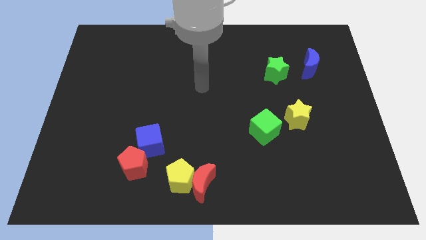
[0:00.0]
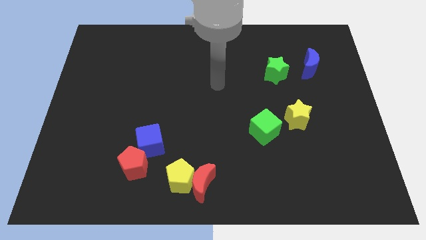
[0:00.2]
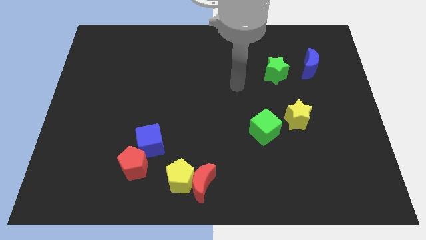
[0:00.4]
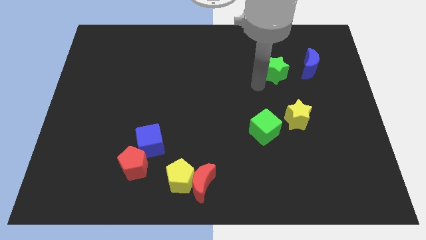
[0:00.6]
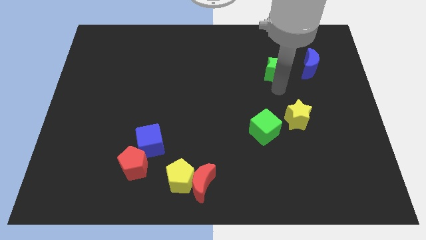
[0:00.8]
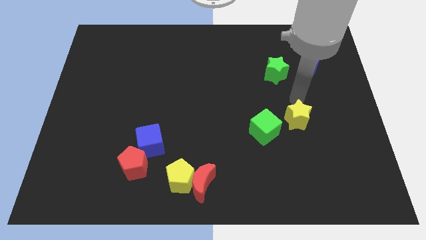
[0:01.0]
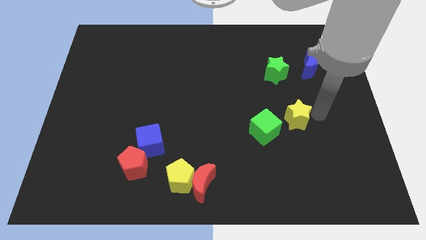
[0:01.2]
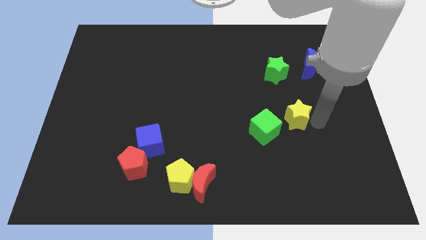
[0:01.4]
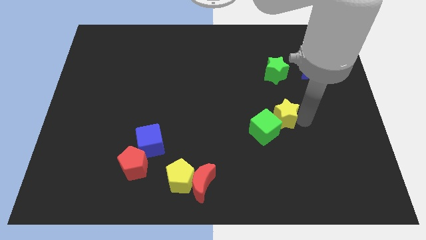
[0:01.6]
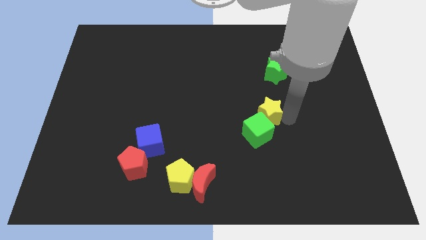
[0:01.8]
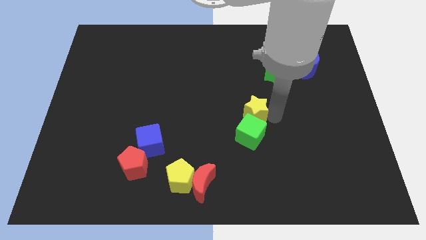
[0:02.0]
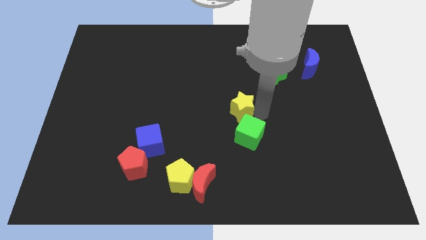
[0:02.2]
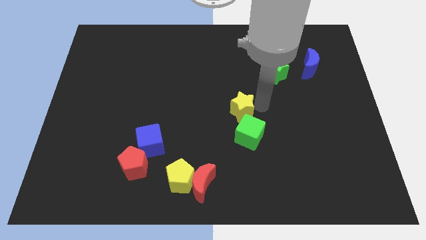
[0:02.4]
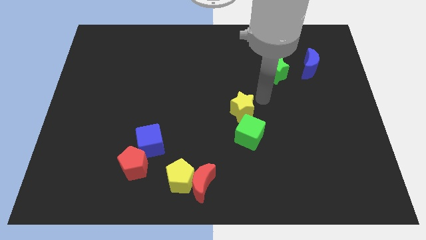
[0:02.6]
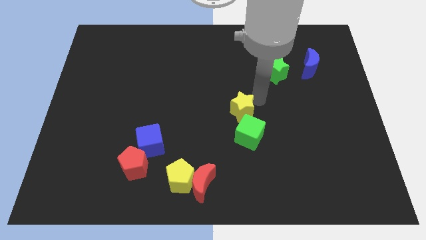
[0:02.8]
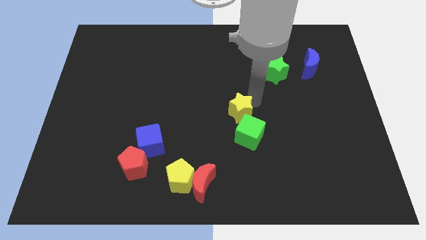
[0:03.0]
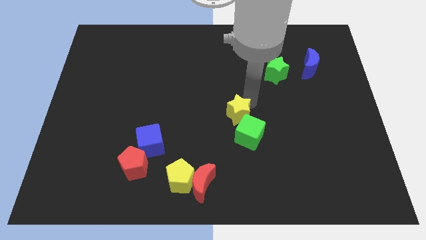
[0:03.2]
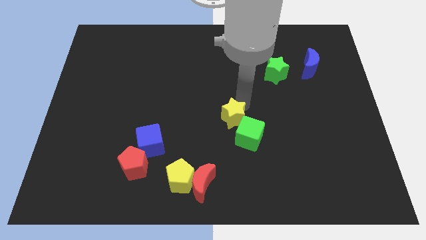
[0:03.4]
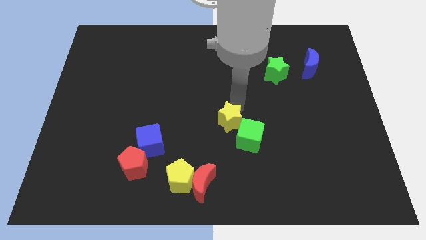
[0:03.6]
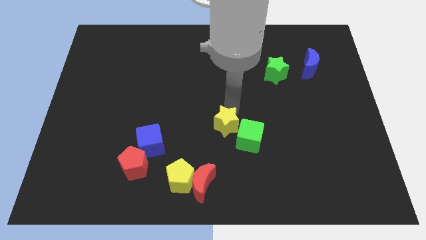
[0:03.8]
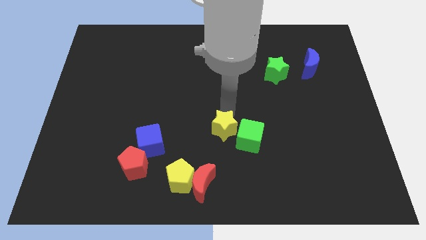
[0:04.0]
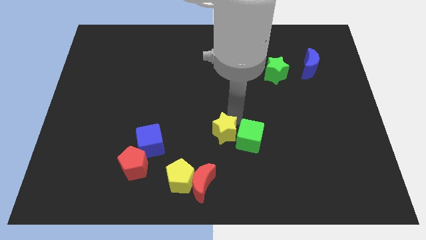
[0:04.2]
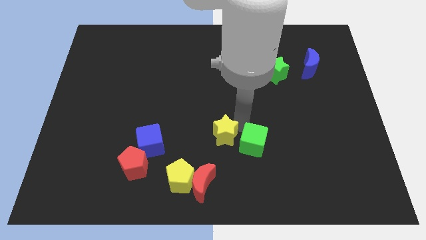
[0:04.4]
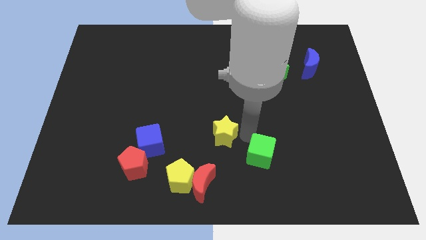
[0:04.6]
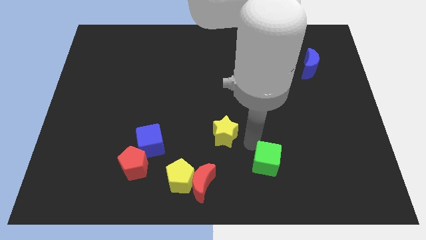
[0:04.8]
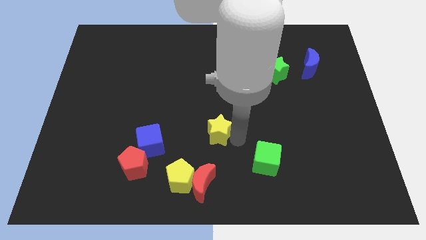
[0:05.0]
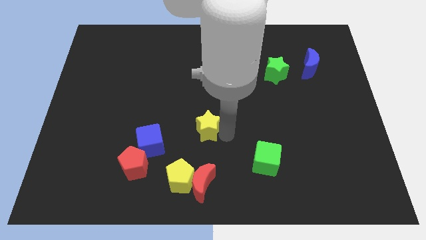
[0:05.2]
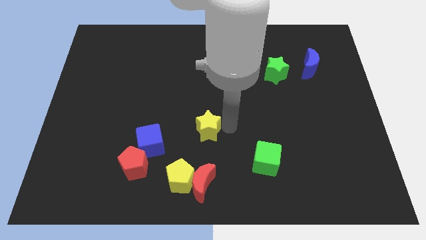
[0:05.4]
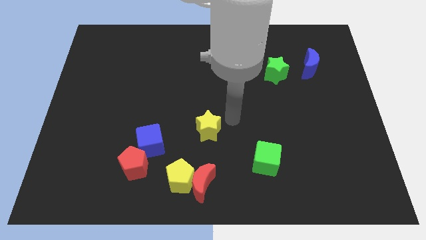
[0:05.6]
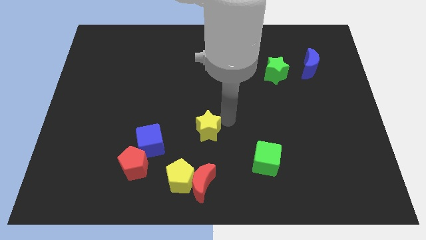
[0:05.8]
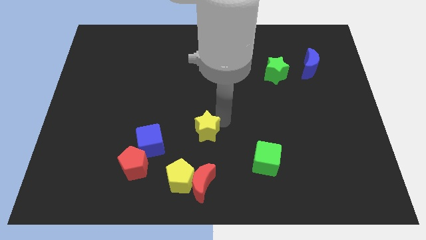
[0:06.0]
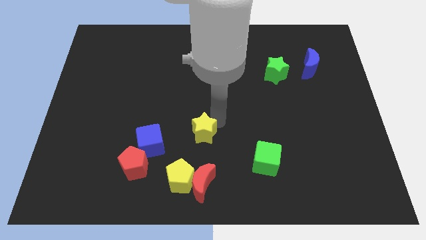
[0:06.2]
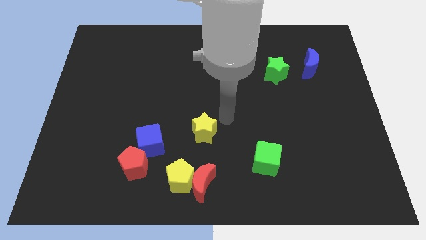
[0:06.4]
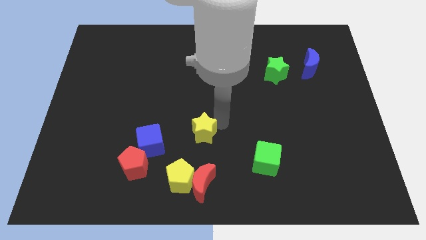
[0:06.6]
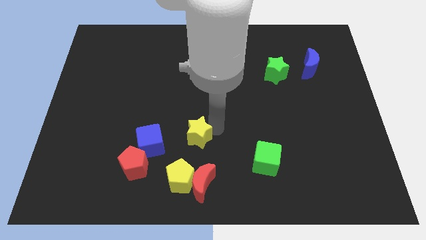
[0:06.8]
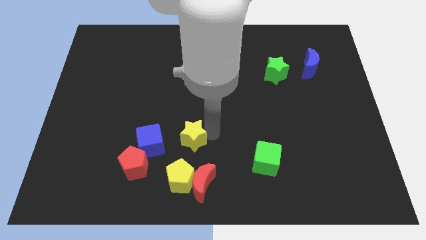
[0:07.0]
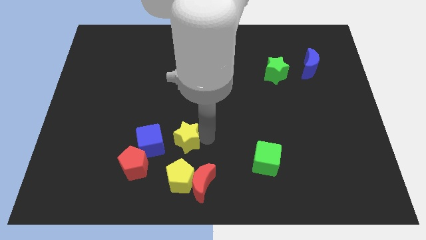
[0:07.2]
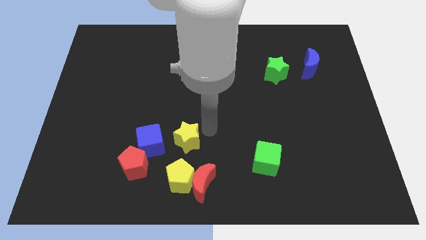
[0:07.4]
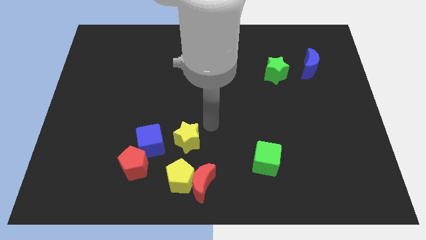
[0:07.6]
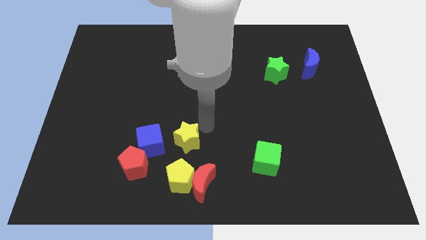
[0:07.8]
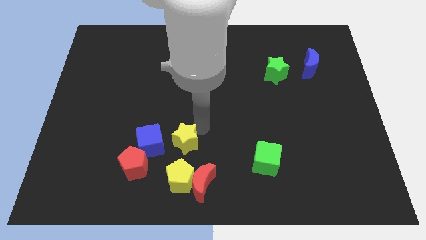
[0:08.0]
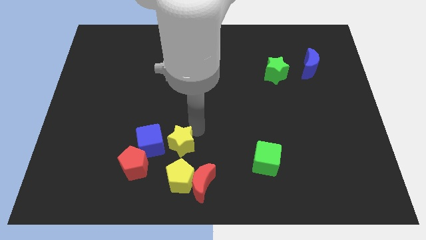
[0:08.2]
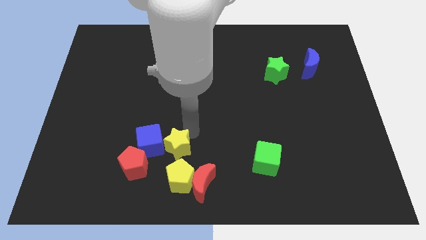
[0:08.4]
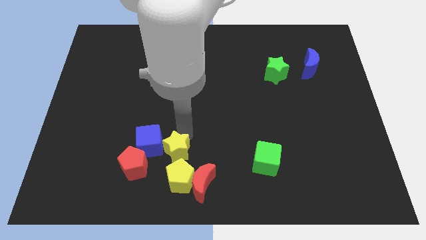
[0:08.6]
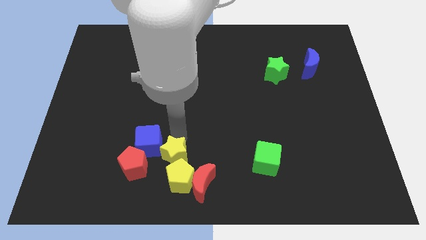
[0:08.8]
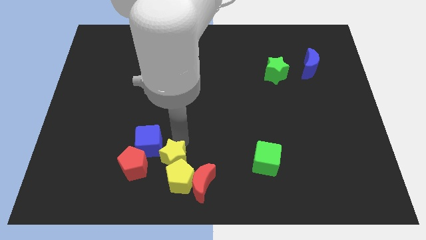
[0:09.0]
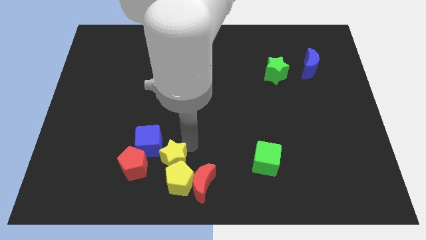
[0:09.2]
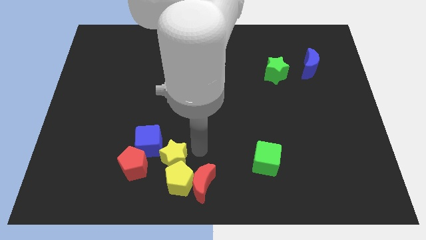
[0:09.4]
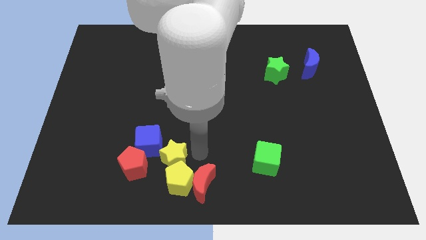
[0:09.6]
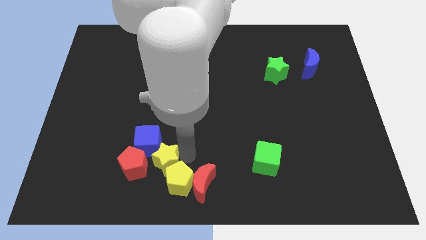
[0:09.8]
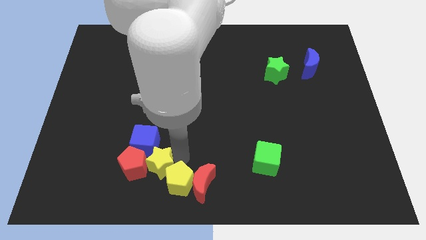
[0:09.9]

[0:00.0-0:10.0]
put the yellow star next to the red pentagon

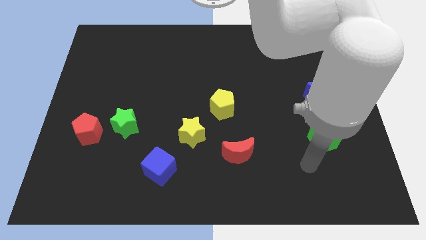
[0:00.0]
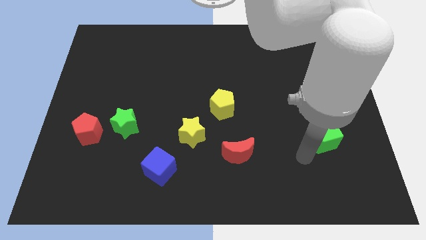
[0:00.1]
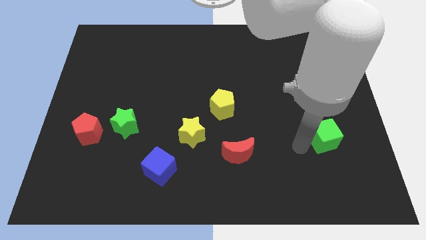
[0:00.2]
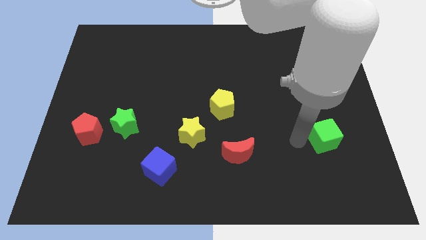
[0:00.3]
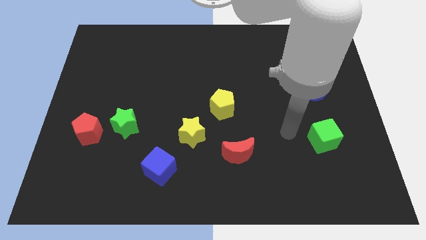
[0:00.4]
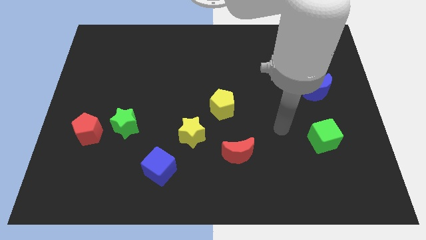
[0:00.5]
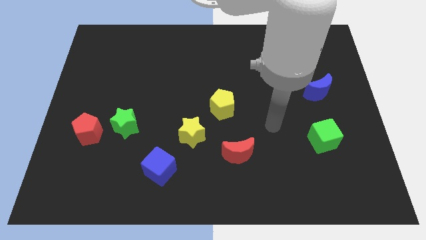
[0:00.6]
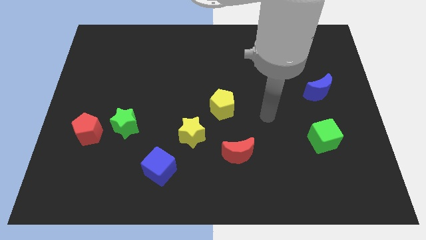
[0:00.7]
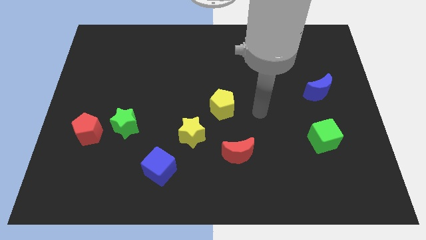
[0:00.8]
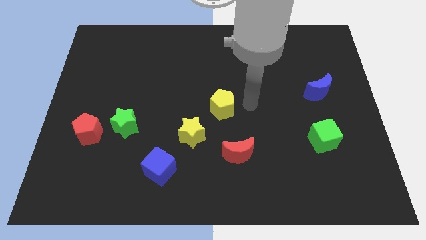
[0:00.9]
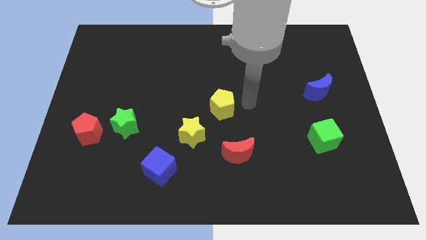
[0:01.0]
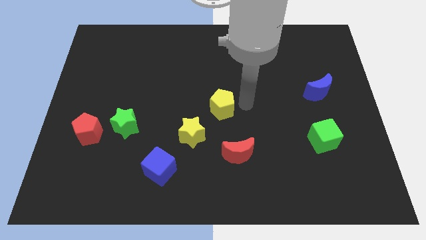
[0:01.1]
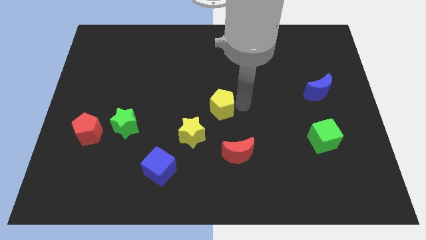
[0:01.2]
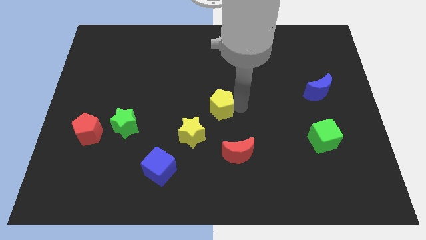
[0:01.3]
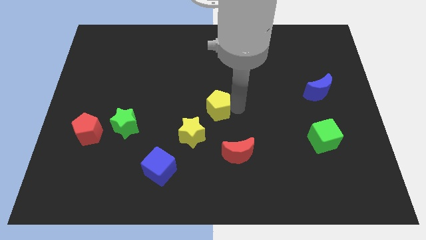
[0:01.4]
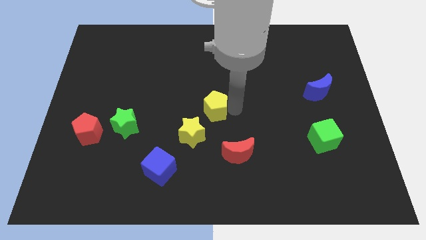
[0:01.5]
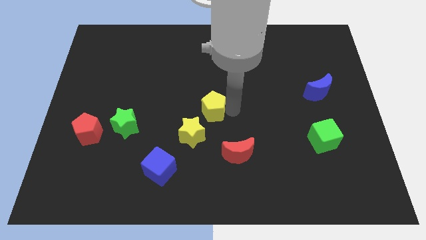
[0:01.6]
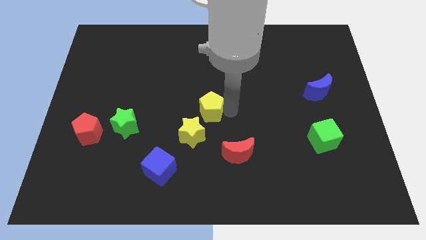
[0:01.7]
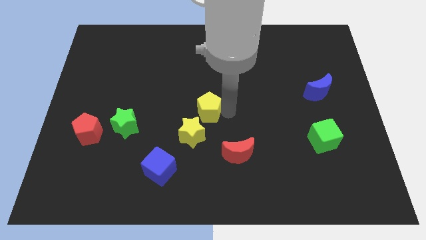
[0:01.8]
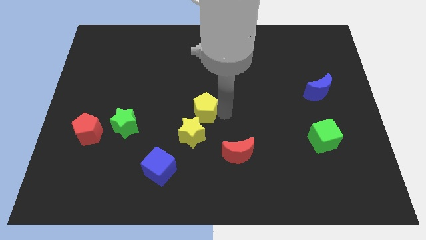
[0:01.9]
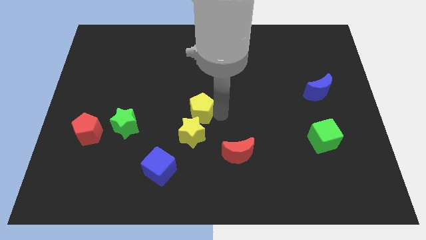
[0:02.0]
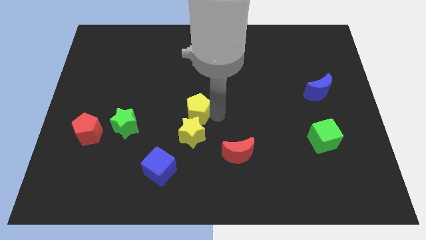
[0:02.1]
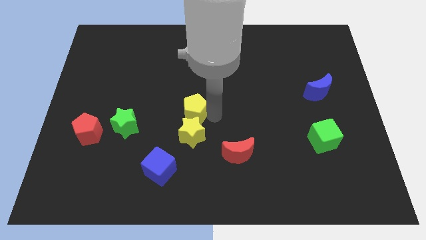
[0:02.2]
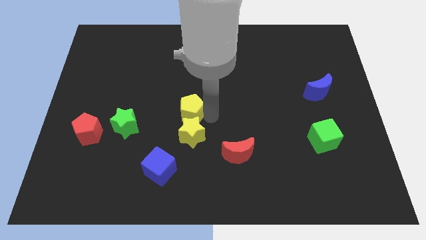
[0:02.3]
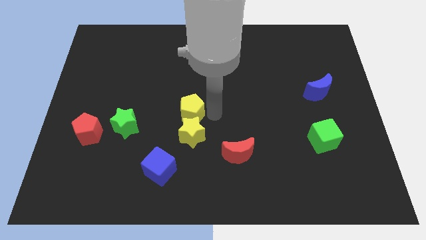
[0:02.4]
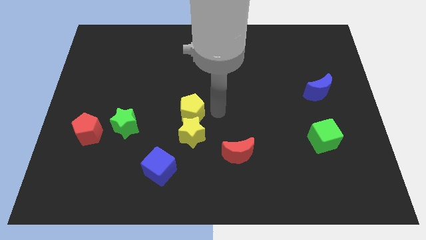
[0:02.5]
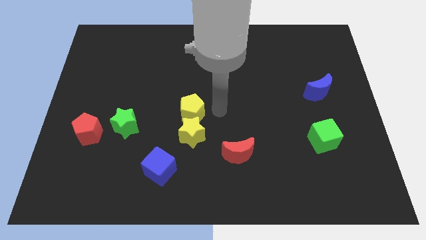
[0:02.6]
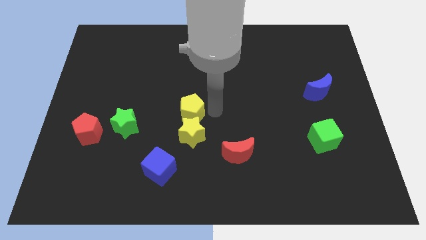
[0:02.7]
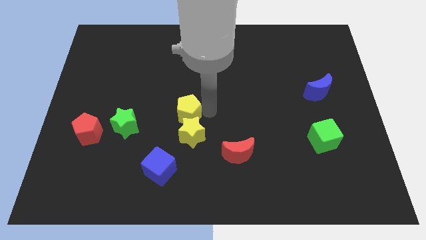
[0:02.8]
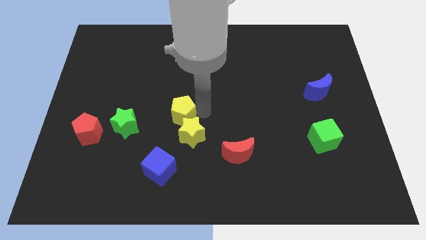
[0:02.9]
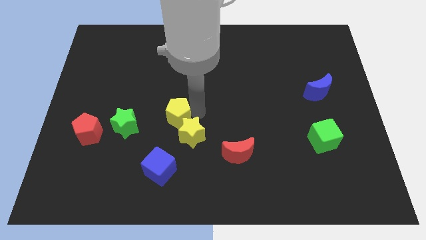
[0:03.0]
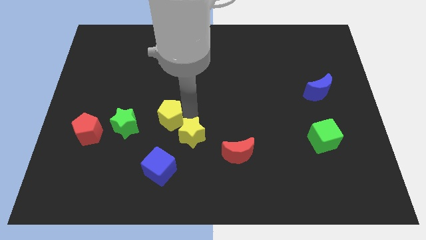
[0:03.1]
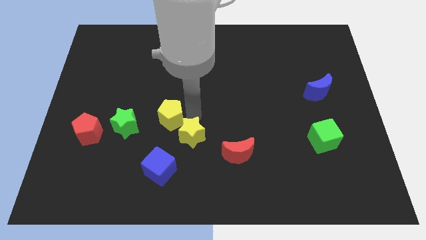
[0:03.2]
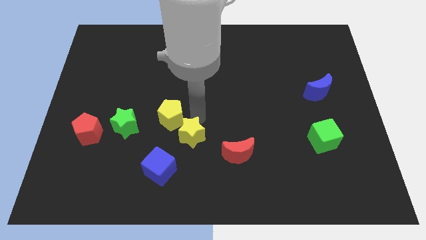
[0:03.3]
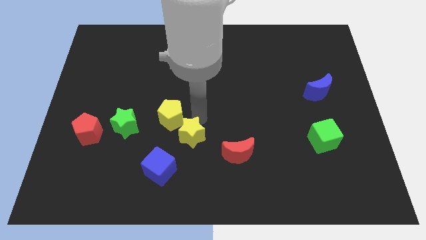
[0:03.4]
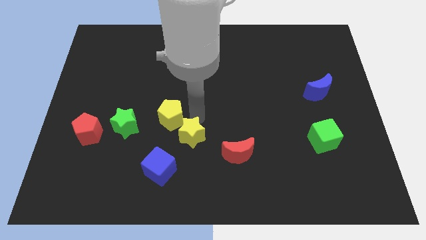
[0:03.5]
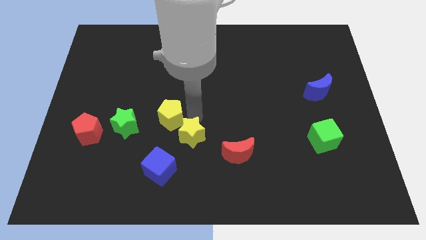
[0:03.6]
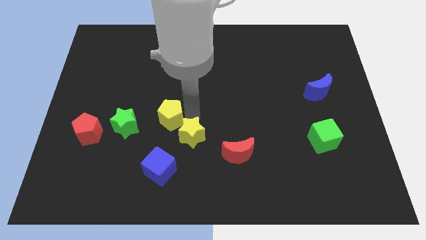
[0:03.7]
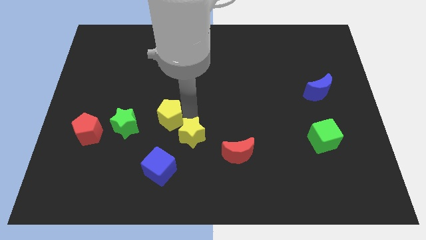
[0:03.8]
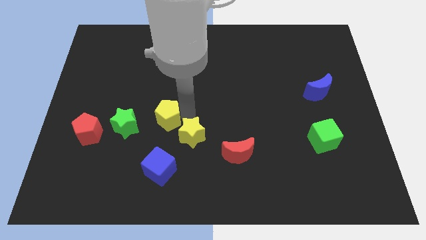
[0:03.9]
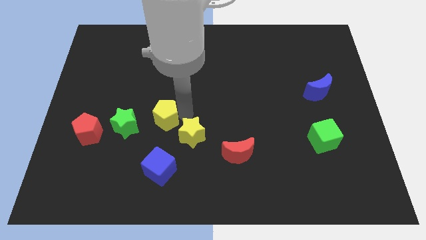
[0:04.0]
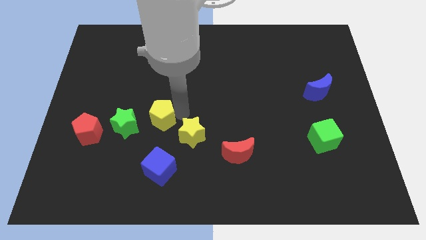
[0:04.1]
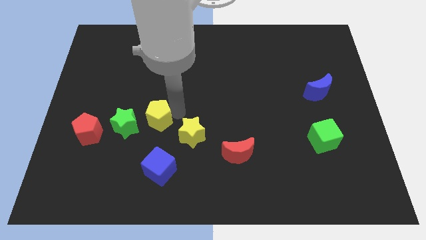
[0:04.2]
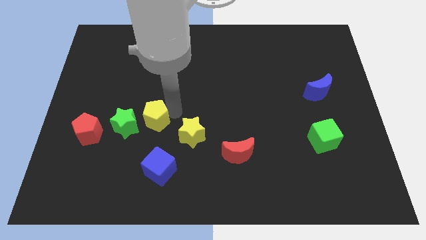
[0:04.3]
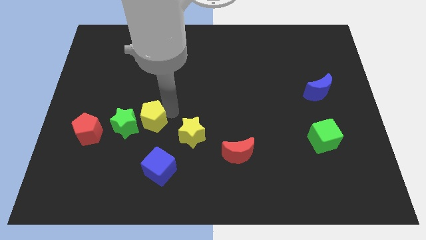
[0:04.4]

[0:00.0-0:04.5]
put the yellow pentagon next to the green star
